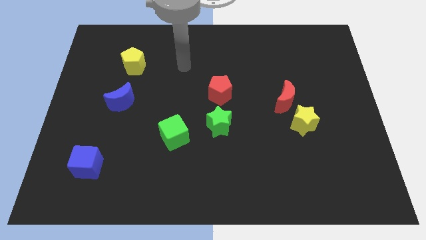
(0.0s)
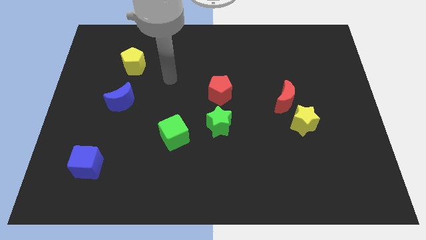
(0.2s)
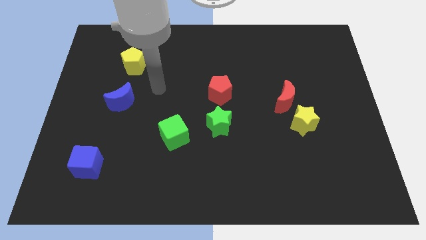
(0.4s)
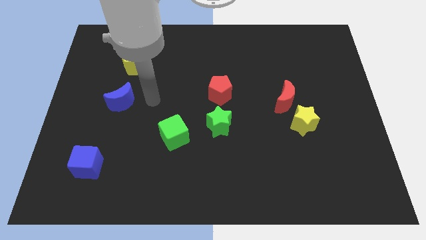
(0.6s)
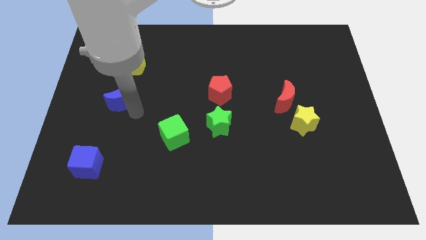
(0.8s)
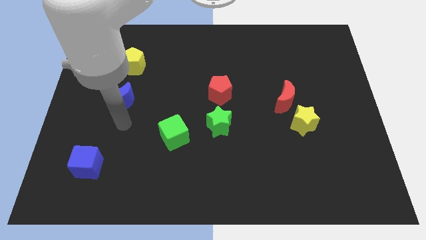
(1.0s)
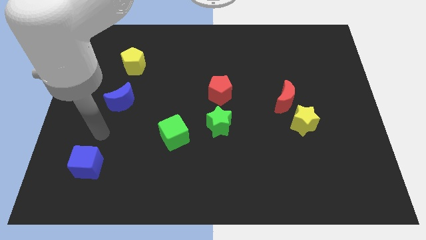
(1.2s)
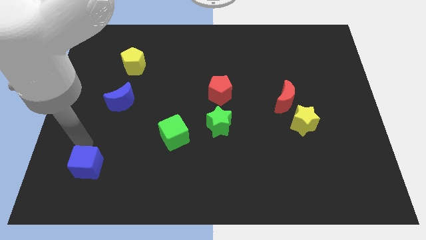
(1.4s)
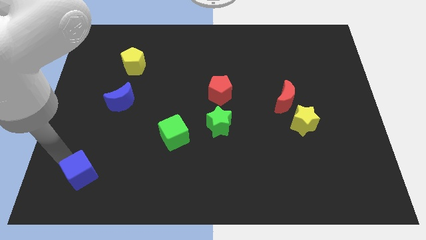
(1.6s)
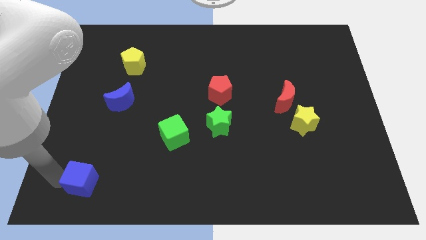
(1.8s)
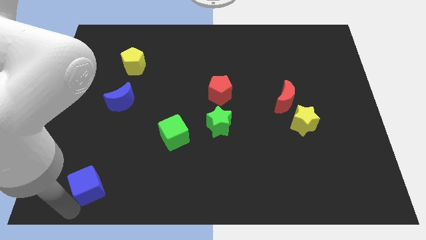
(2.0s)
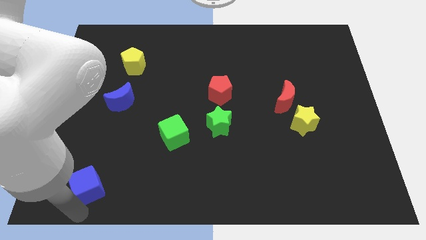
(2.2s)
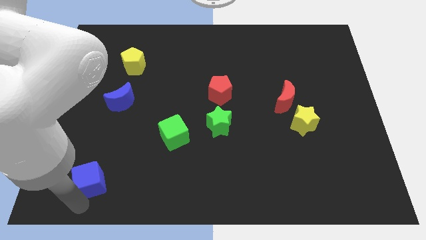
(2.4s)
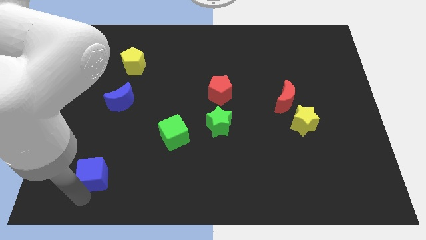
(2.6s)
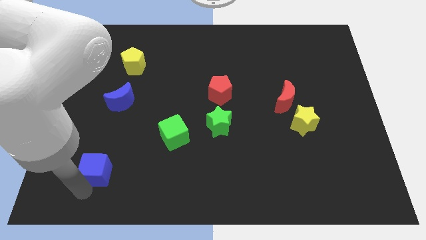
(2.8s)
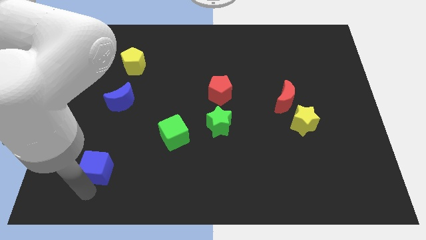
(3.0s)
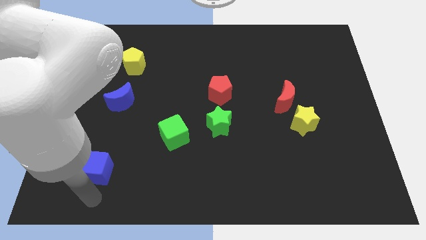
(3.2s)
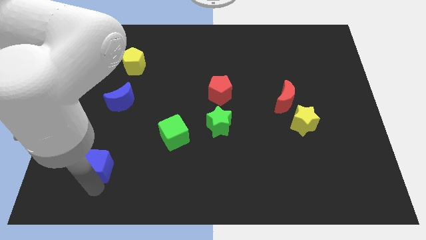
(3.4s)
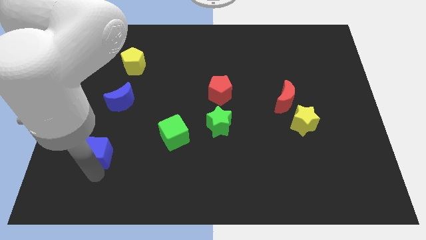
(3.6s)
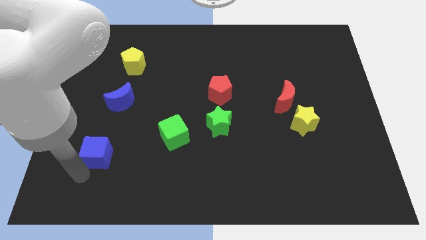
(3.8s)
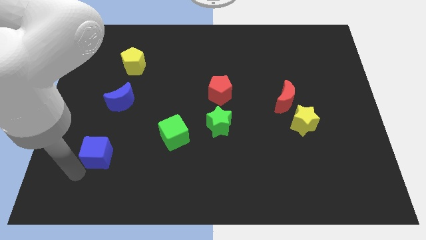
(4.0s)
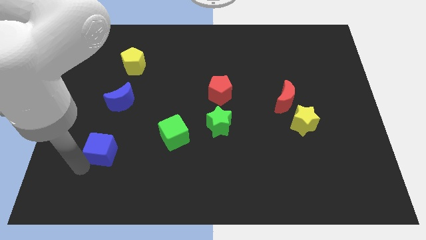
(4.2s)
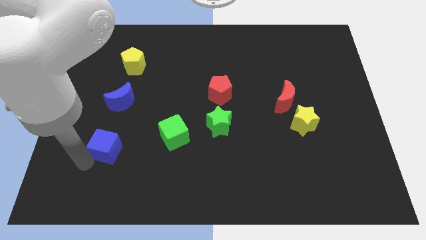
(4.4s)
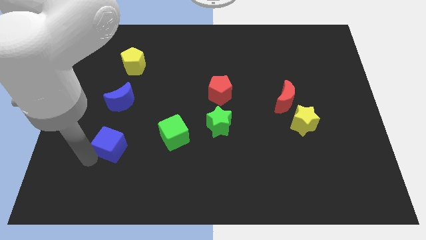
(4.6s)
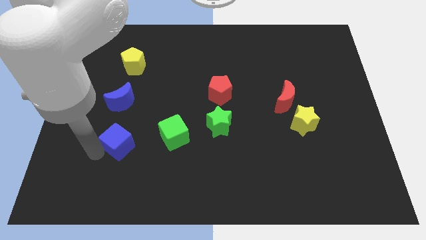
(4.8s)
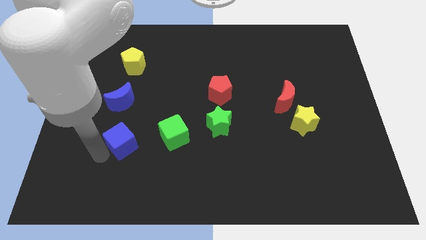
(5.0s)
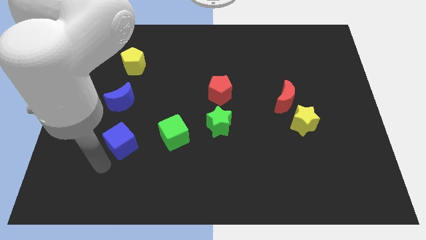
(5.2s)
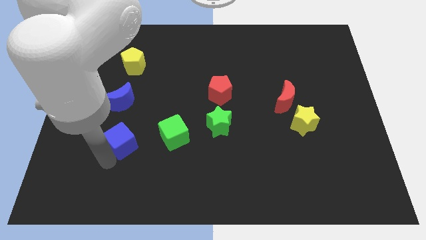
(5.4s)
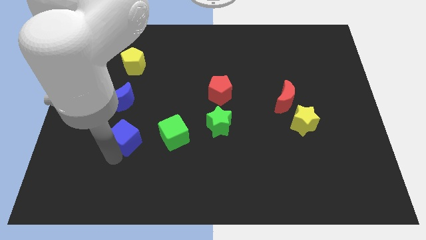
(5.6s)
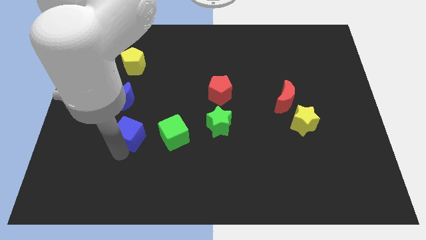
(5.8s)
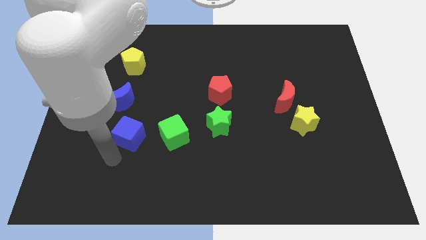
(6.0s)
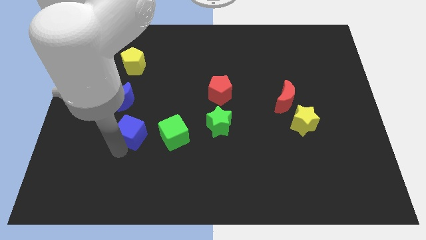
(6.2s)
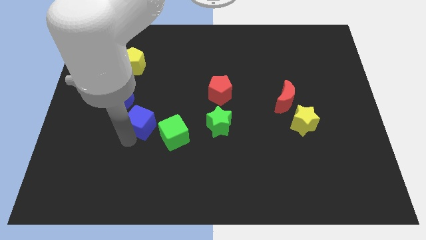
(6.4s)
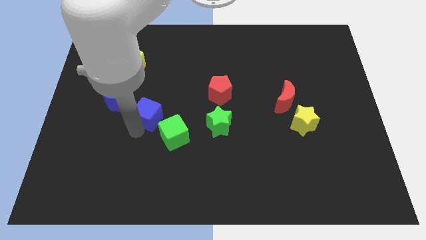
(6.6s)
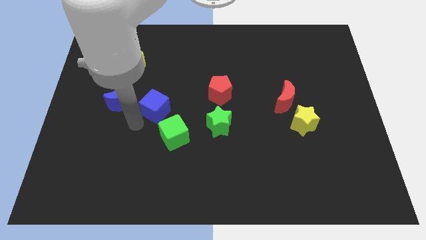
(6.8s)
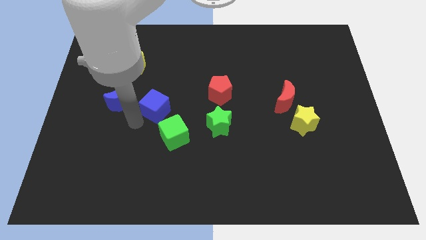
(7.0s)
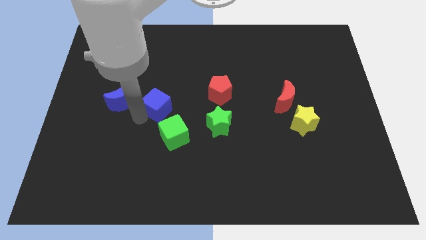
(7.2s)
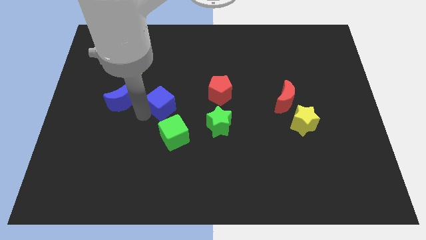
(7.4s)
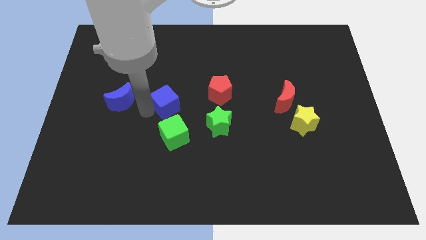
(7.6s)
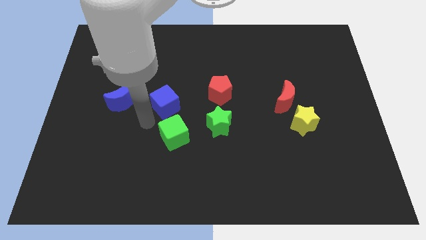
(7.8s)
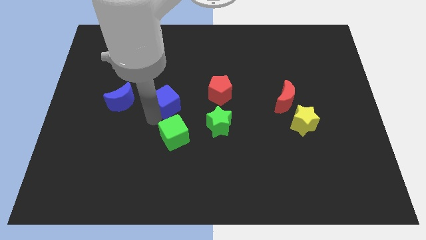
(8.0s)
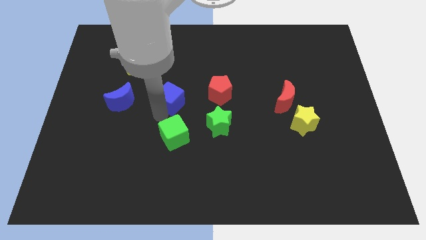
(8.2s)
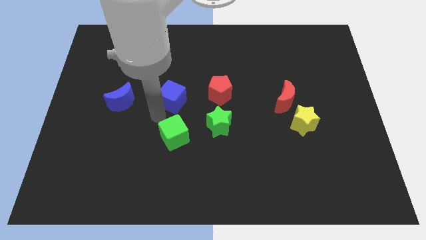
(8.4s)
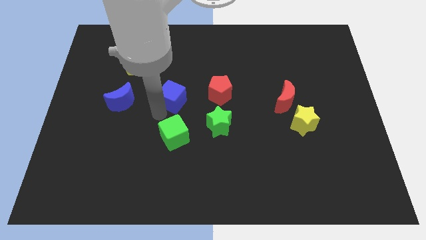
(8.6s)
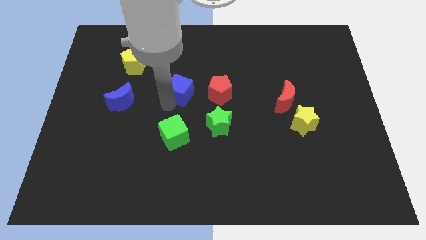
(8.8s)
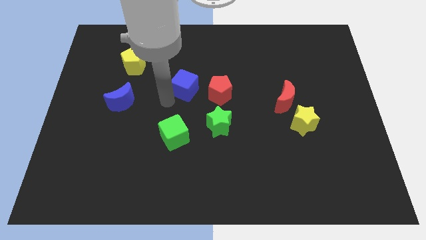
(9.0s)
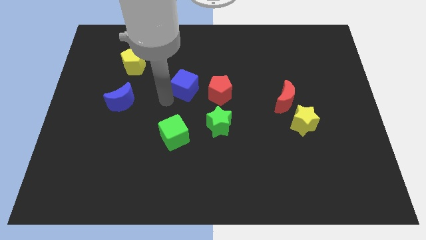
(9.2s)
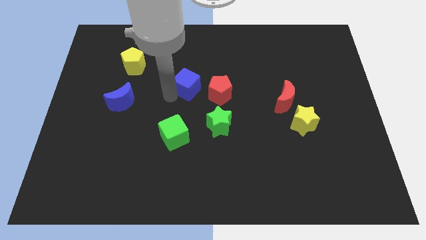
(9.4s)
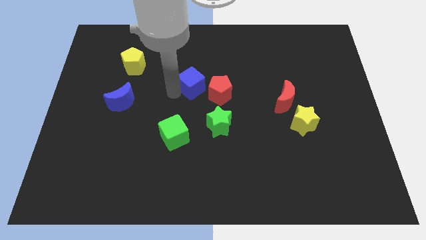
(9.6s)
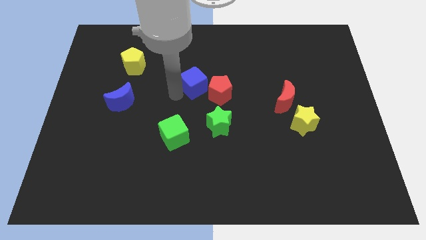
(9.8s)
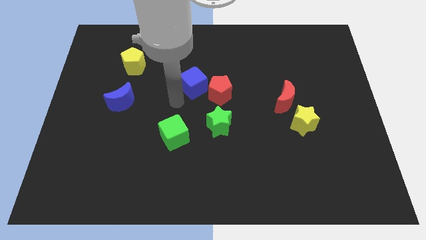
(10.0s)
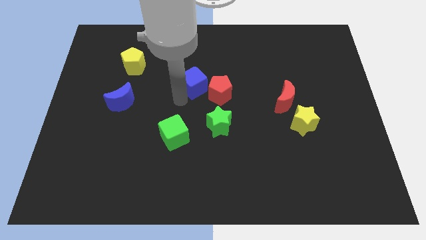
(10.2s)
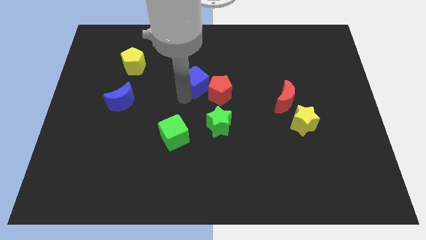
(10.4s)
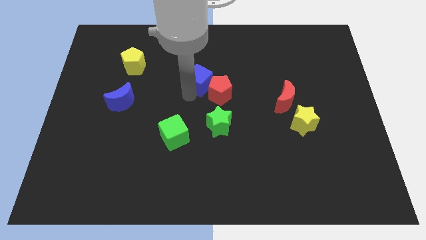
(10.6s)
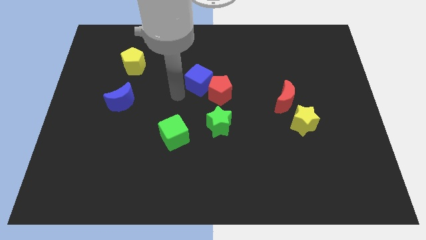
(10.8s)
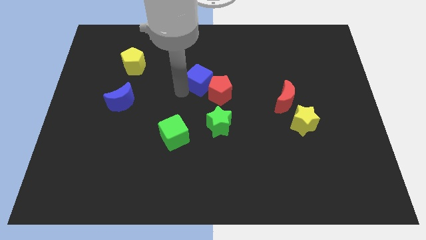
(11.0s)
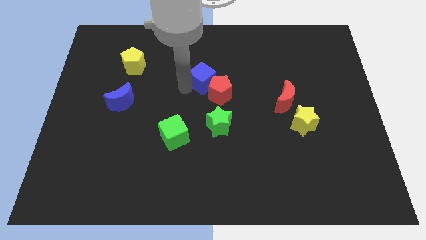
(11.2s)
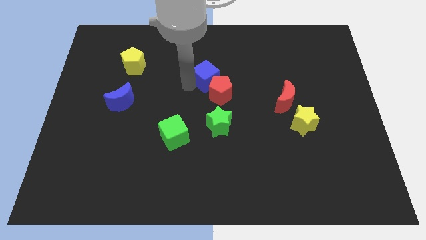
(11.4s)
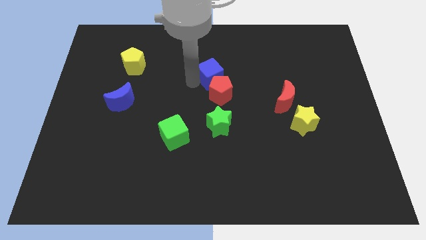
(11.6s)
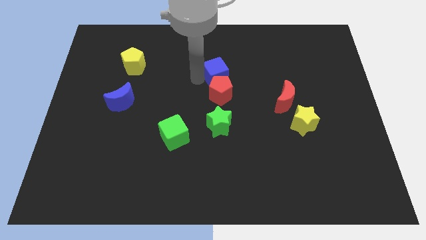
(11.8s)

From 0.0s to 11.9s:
push the blue cube to the top right of the red pentagon

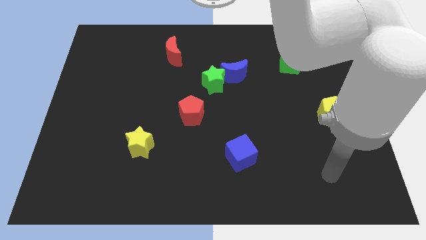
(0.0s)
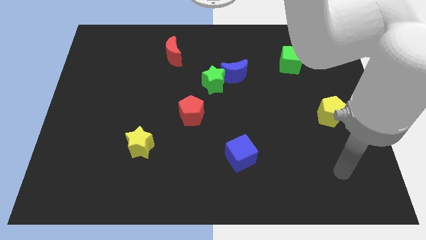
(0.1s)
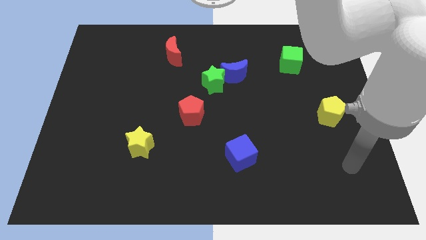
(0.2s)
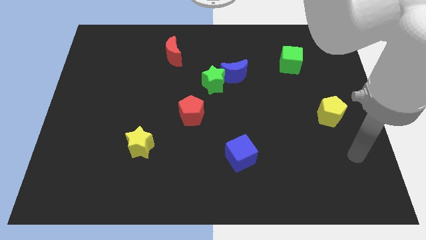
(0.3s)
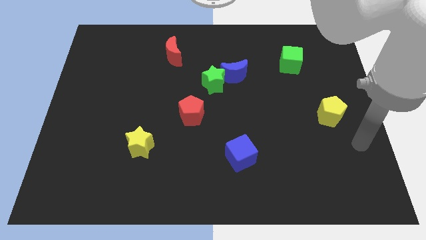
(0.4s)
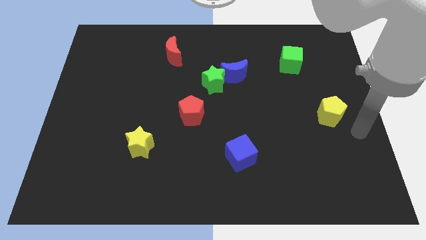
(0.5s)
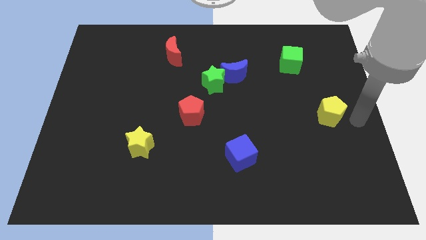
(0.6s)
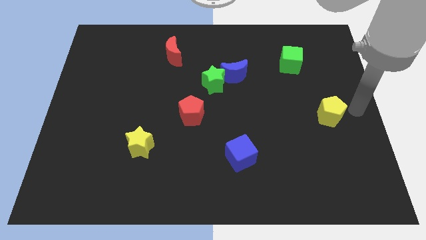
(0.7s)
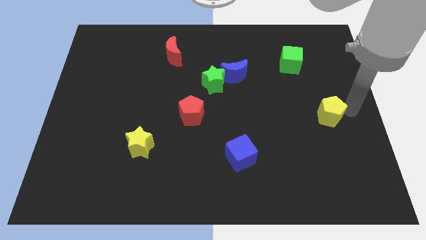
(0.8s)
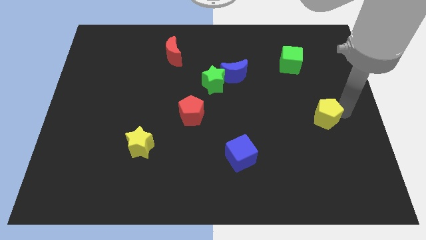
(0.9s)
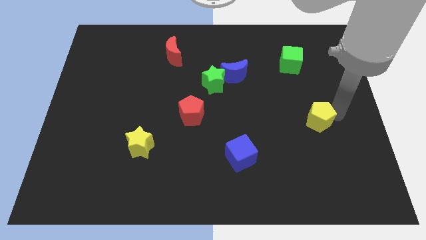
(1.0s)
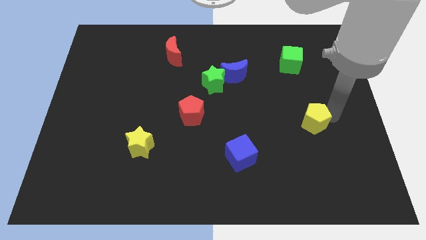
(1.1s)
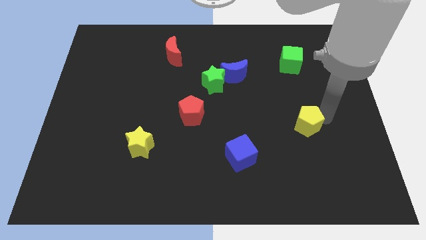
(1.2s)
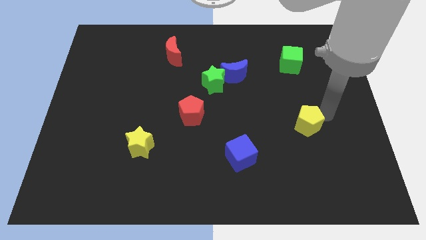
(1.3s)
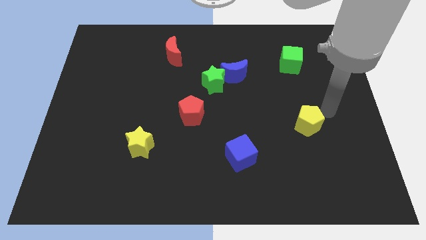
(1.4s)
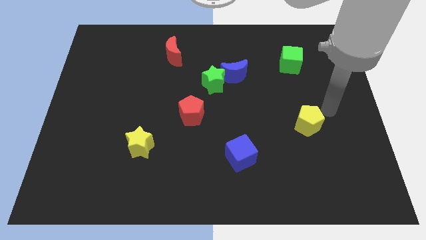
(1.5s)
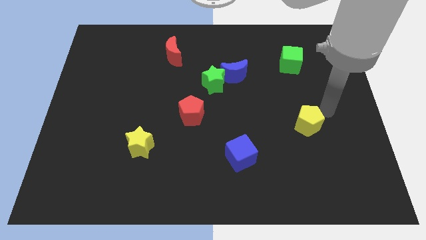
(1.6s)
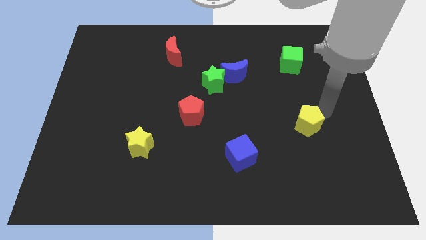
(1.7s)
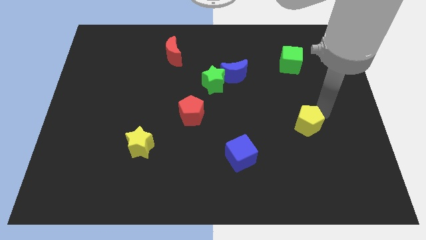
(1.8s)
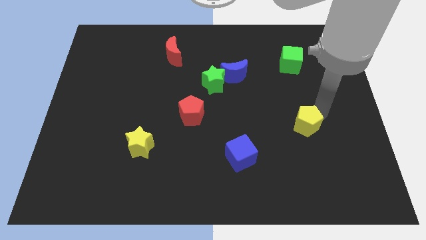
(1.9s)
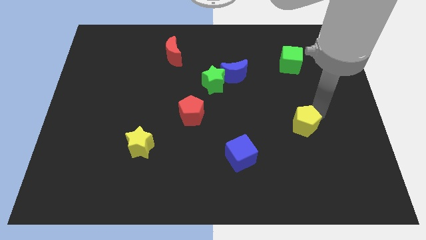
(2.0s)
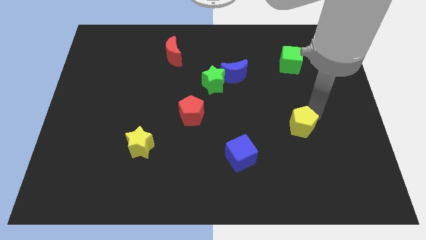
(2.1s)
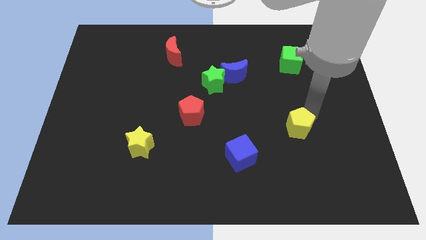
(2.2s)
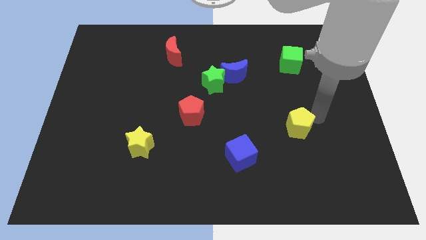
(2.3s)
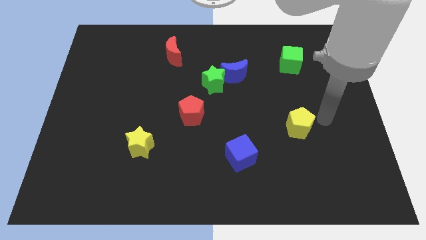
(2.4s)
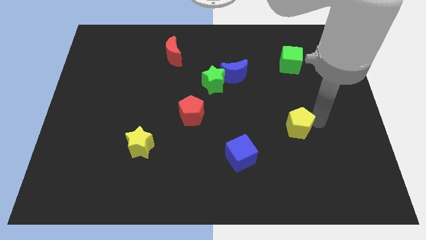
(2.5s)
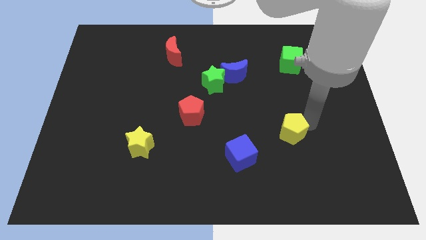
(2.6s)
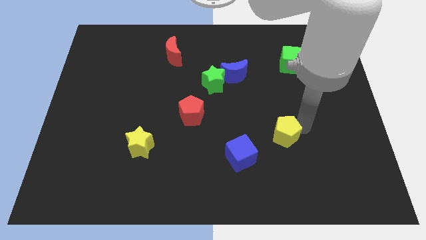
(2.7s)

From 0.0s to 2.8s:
push the yellow pentagon to the top right of the blue cube
